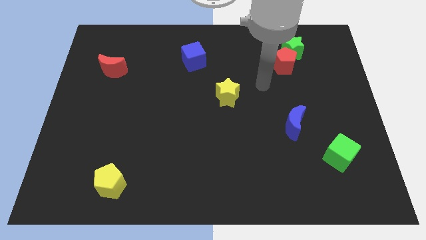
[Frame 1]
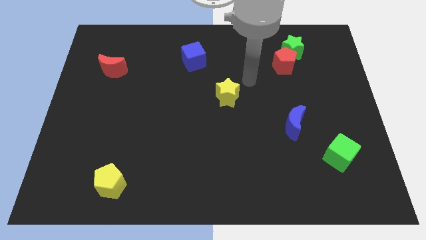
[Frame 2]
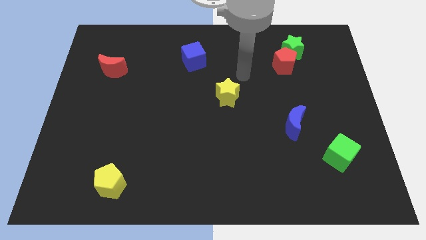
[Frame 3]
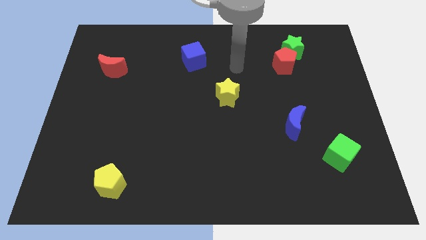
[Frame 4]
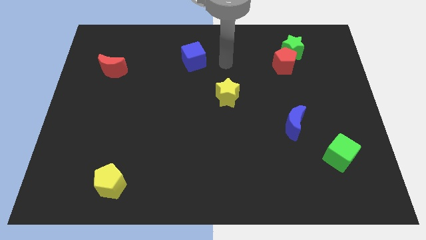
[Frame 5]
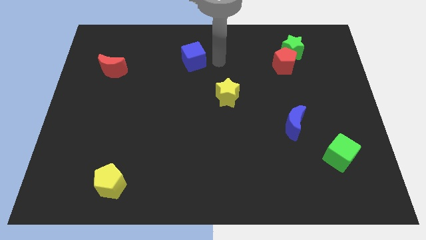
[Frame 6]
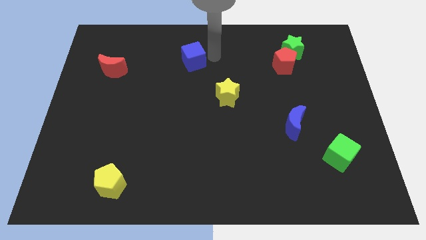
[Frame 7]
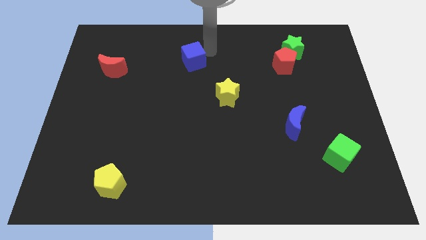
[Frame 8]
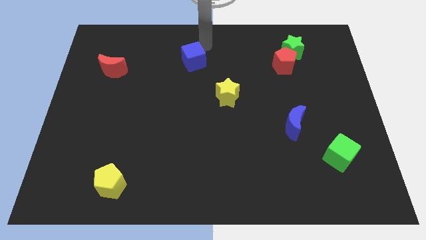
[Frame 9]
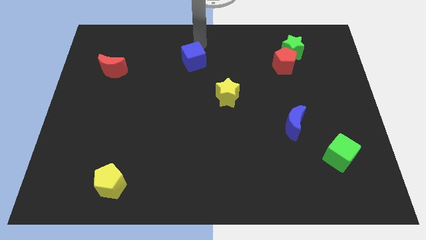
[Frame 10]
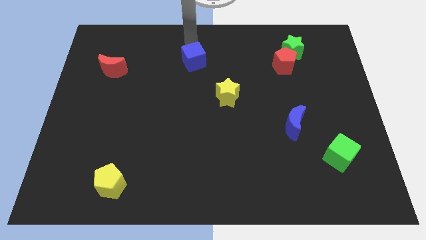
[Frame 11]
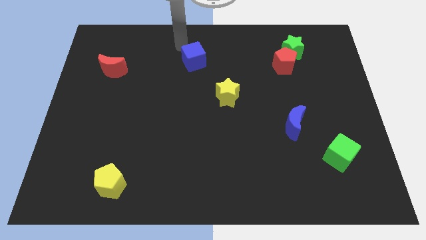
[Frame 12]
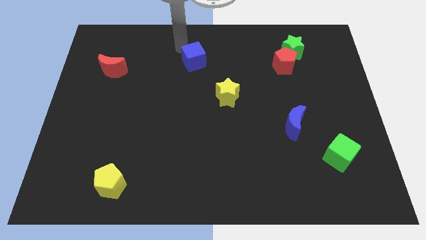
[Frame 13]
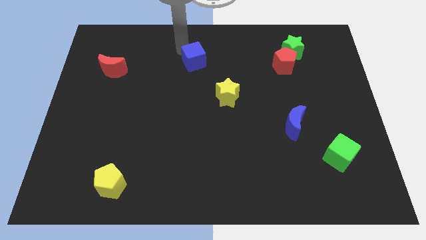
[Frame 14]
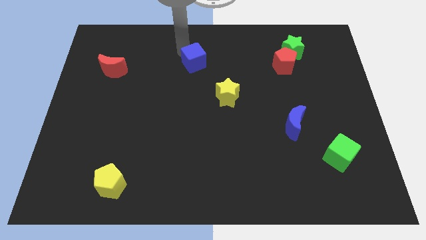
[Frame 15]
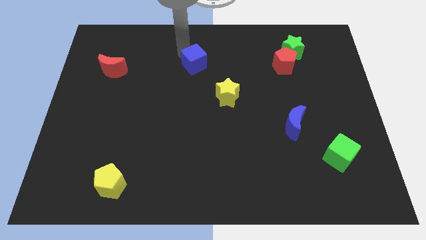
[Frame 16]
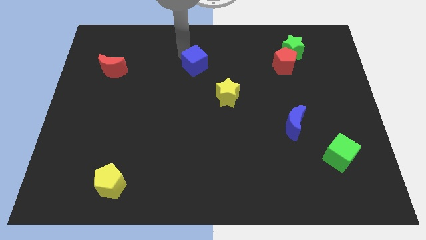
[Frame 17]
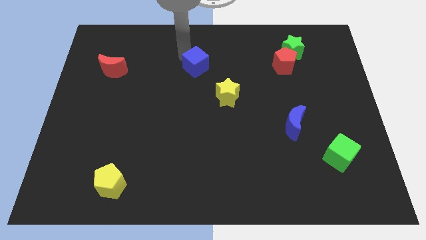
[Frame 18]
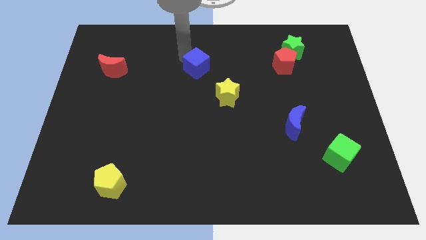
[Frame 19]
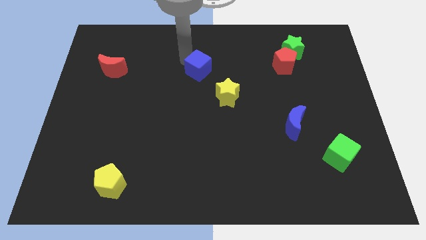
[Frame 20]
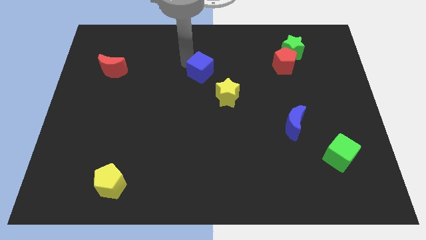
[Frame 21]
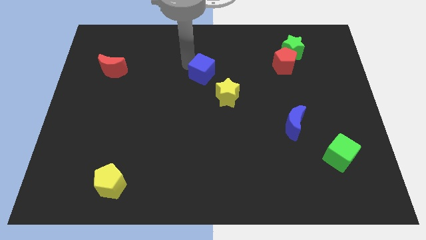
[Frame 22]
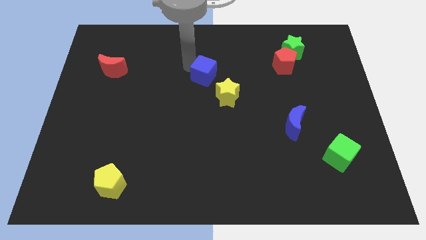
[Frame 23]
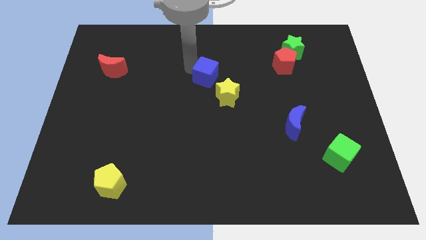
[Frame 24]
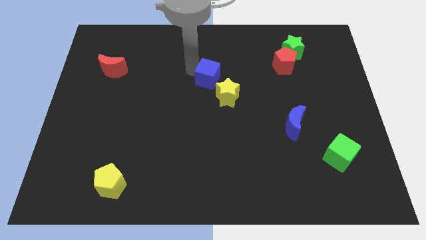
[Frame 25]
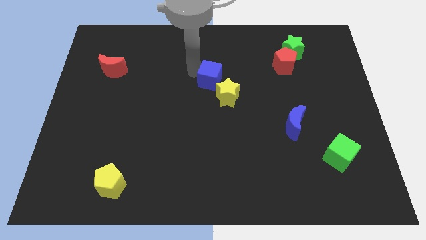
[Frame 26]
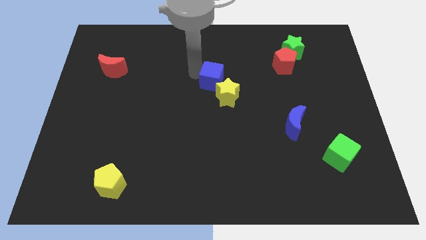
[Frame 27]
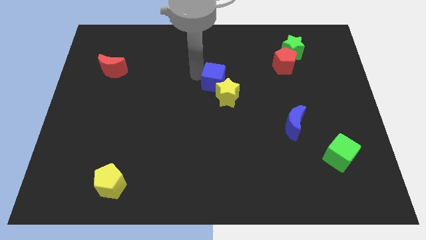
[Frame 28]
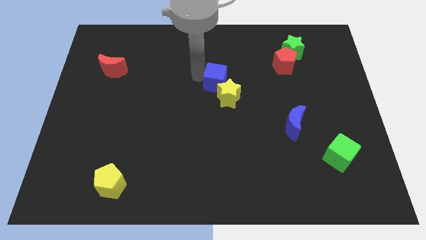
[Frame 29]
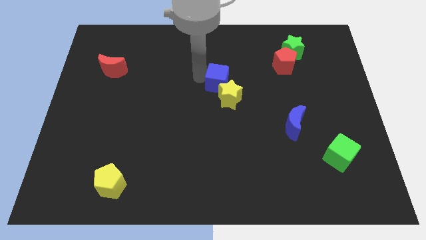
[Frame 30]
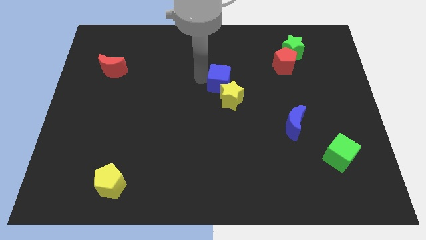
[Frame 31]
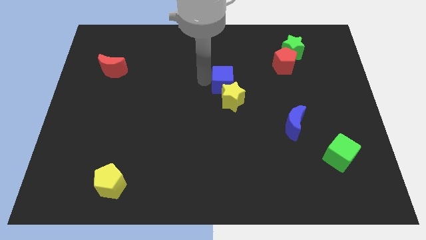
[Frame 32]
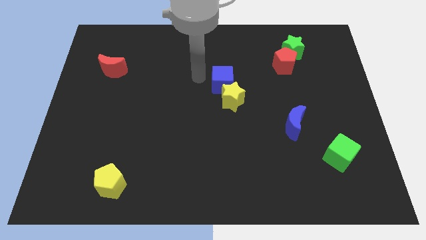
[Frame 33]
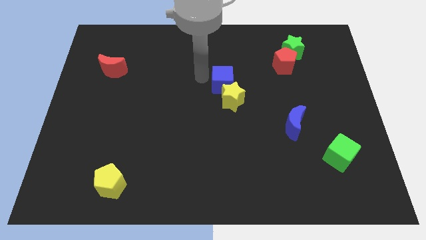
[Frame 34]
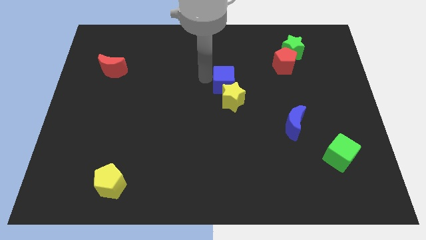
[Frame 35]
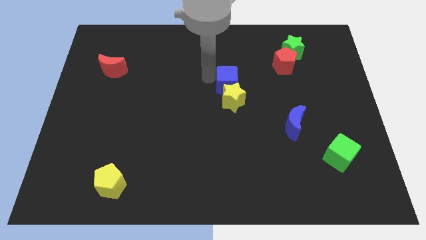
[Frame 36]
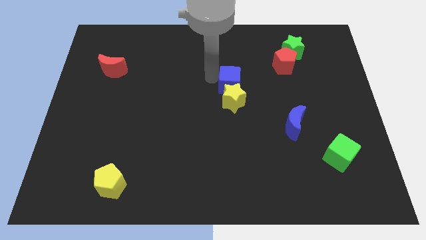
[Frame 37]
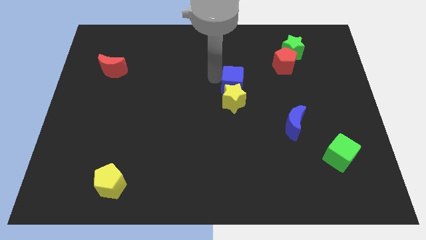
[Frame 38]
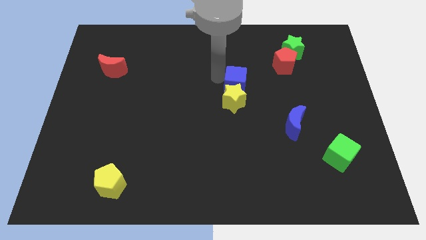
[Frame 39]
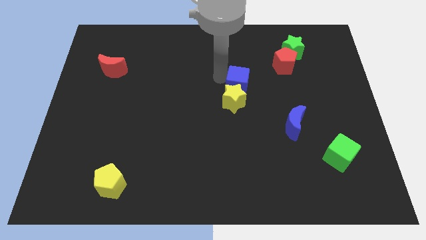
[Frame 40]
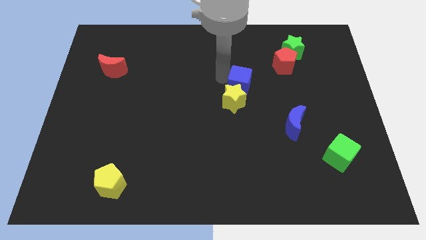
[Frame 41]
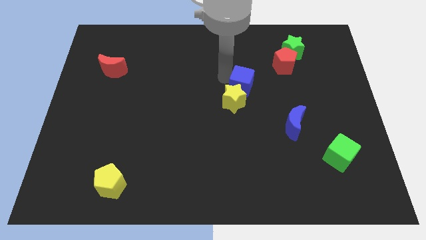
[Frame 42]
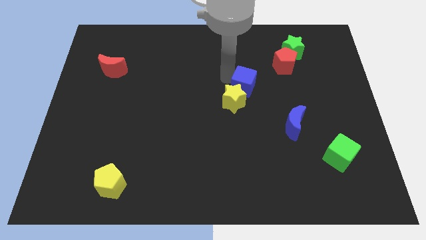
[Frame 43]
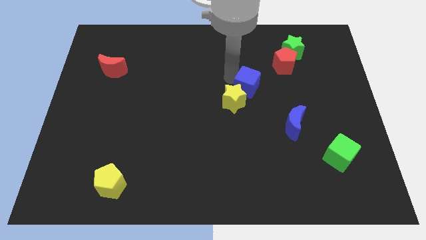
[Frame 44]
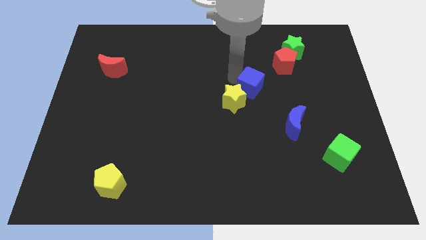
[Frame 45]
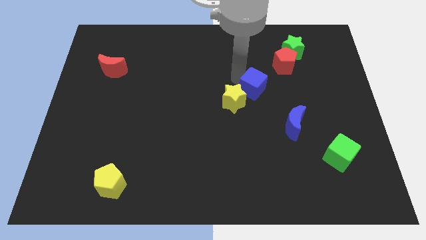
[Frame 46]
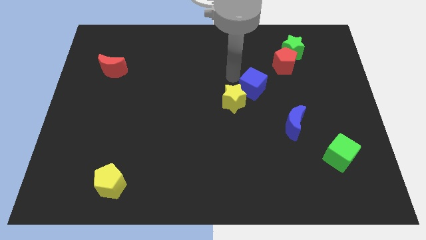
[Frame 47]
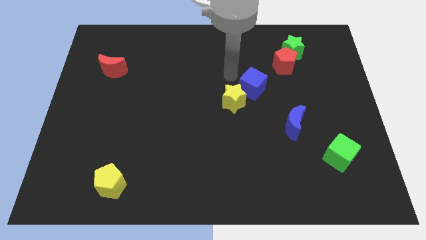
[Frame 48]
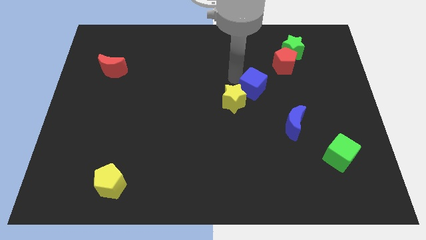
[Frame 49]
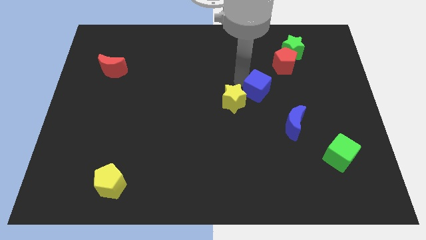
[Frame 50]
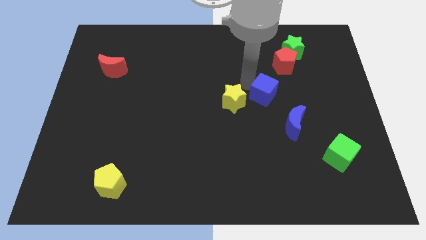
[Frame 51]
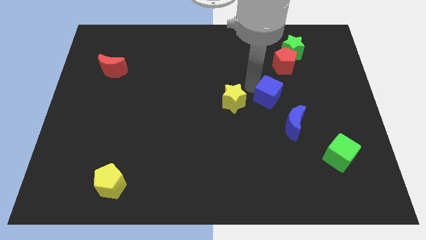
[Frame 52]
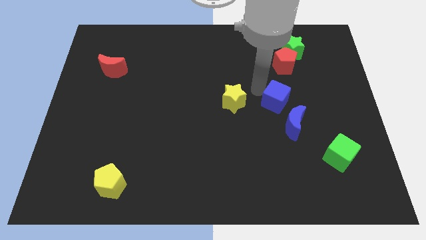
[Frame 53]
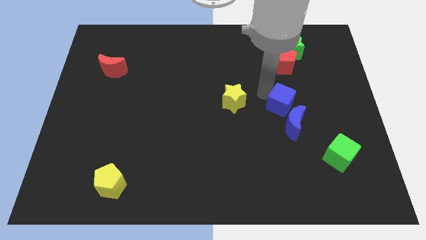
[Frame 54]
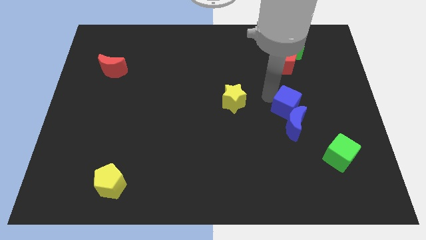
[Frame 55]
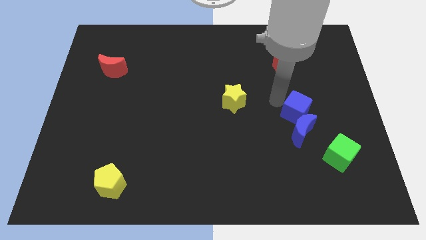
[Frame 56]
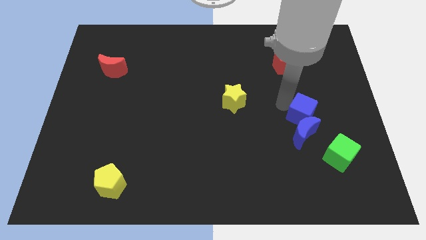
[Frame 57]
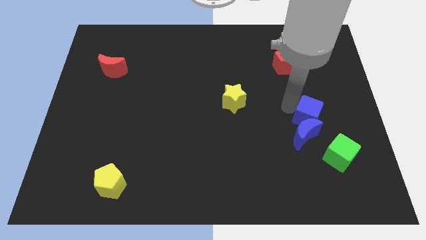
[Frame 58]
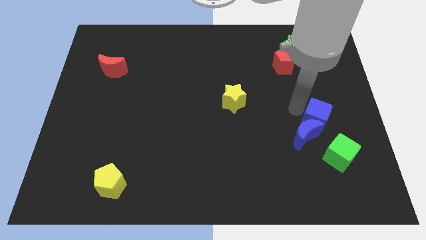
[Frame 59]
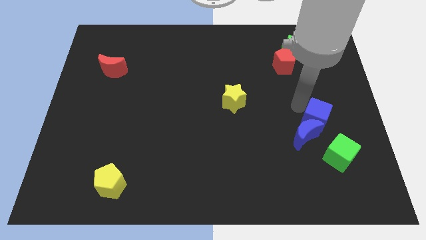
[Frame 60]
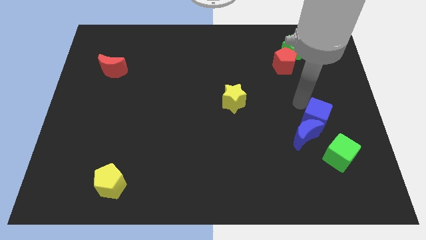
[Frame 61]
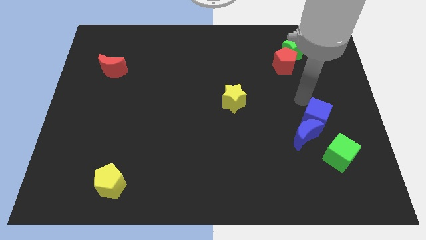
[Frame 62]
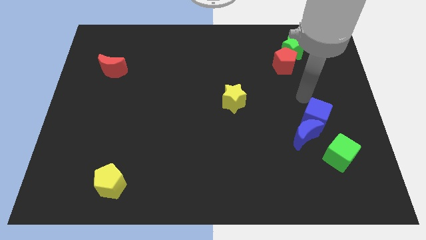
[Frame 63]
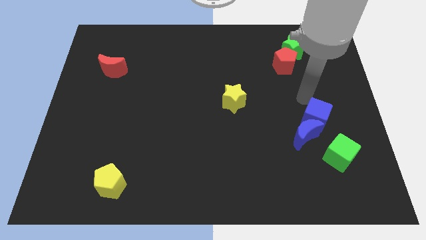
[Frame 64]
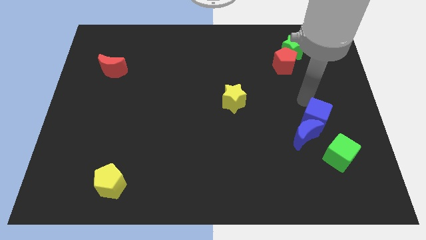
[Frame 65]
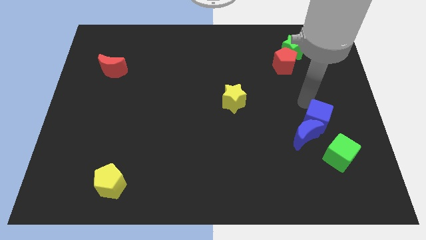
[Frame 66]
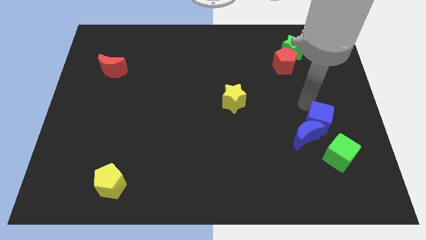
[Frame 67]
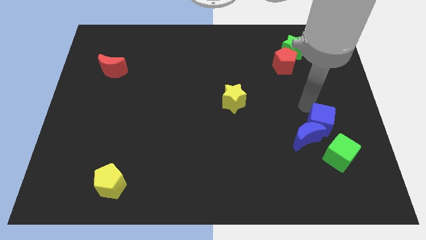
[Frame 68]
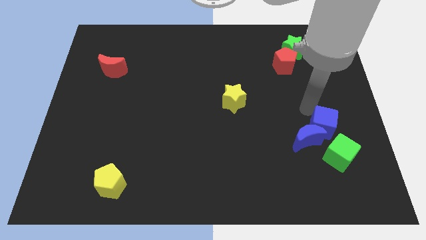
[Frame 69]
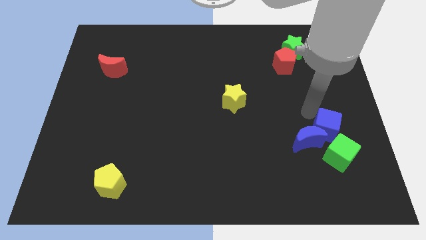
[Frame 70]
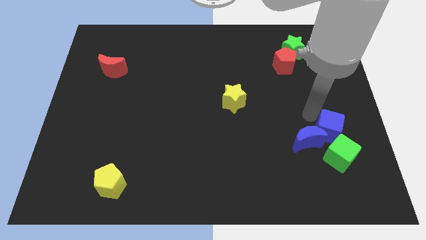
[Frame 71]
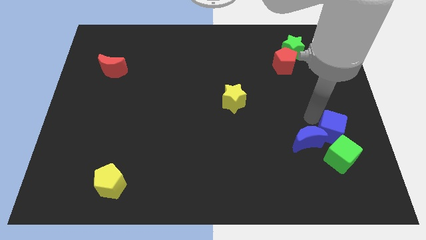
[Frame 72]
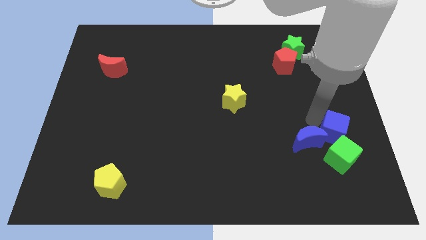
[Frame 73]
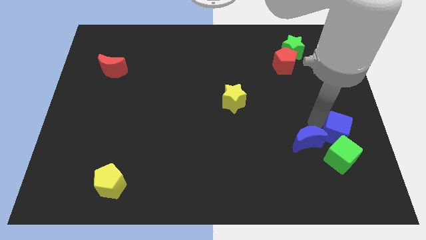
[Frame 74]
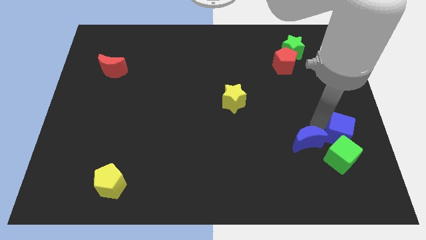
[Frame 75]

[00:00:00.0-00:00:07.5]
slide the blue cube close to the green cube
